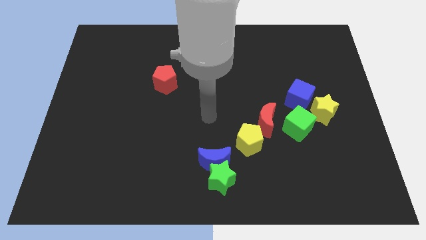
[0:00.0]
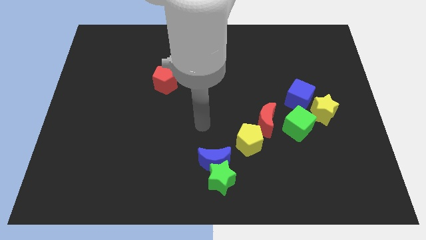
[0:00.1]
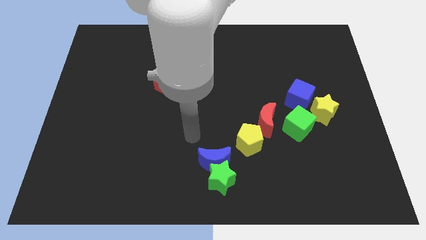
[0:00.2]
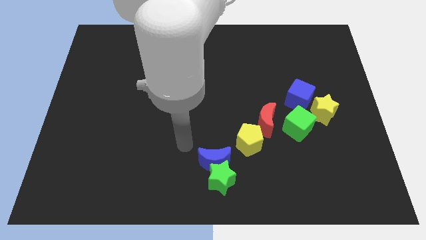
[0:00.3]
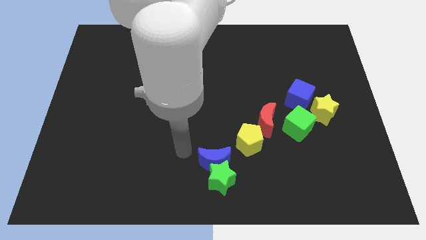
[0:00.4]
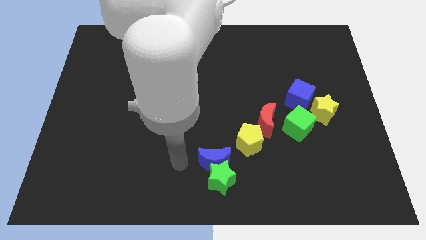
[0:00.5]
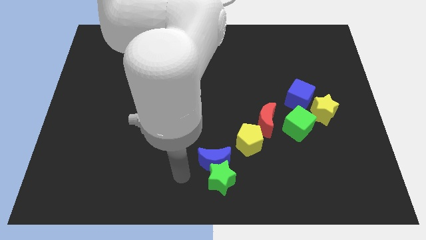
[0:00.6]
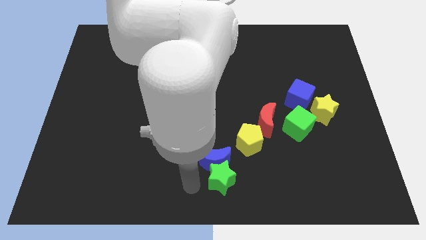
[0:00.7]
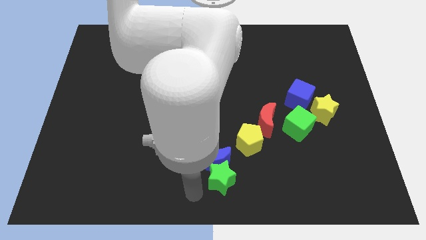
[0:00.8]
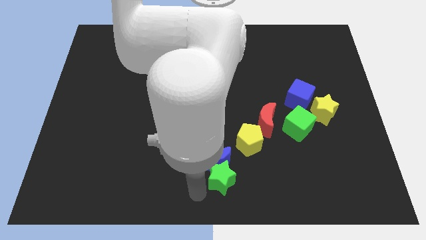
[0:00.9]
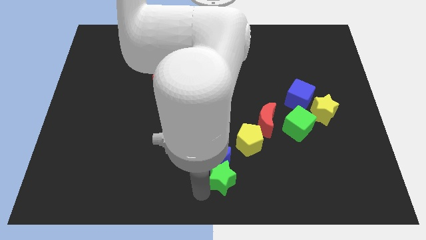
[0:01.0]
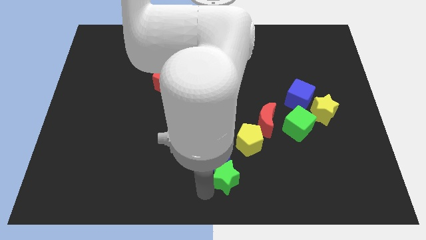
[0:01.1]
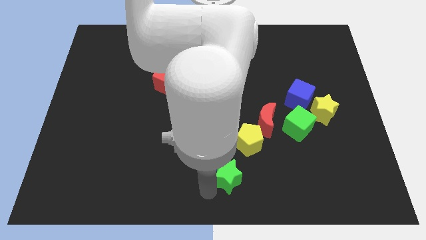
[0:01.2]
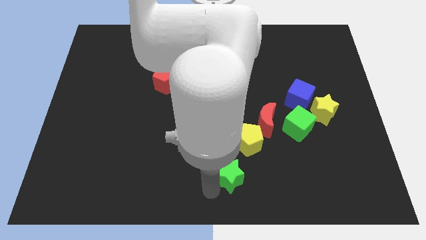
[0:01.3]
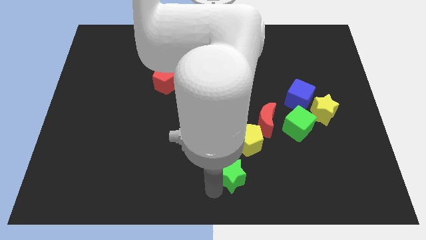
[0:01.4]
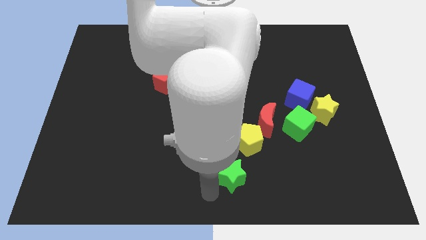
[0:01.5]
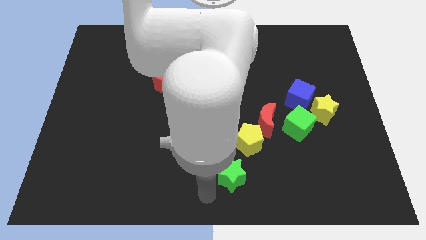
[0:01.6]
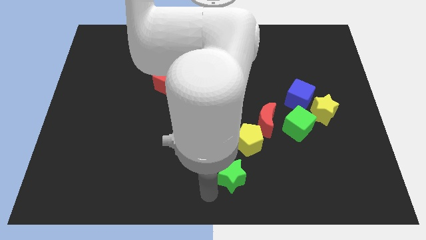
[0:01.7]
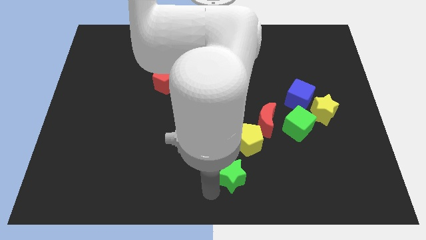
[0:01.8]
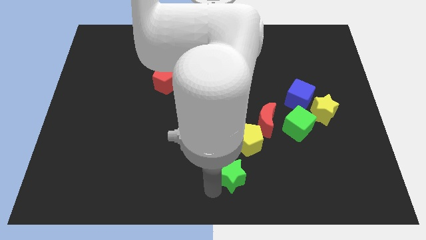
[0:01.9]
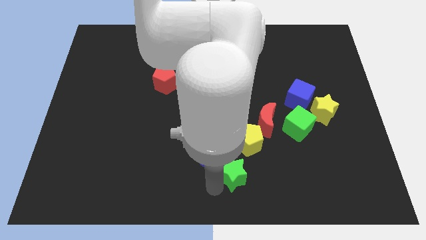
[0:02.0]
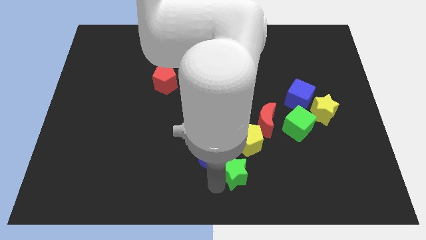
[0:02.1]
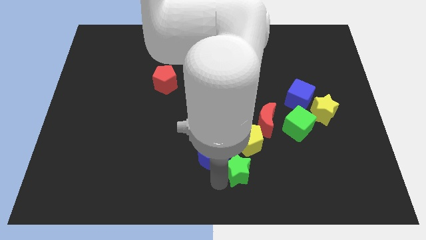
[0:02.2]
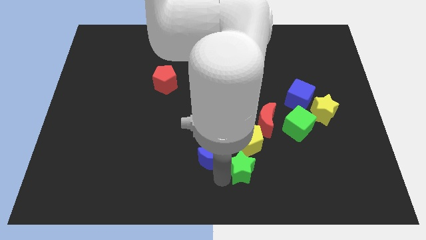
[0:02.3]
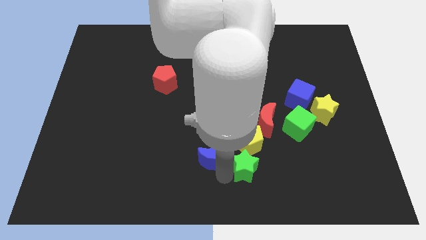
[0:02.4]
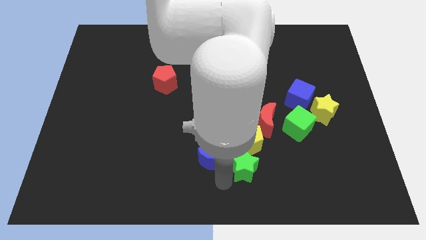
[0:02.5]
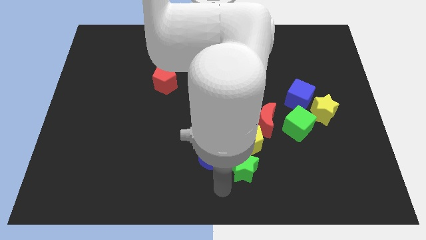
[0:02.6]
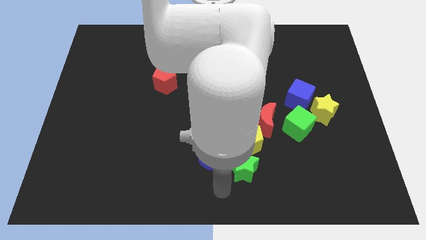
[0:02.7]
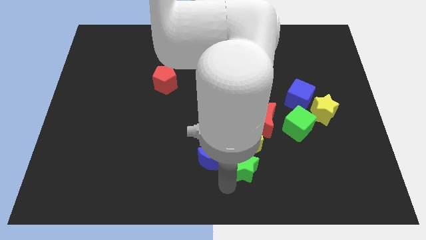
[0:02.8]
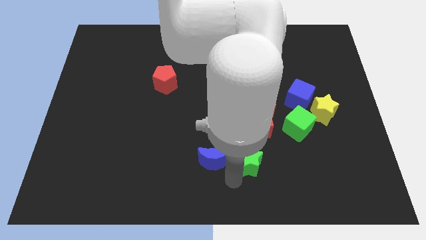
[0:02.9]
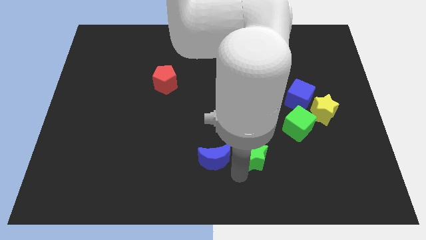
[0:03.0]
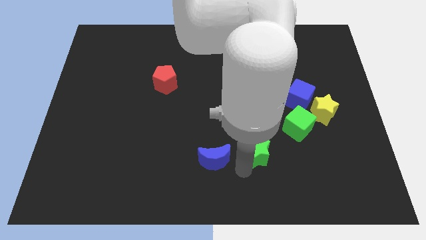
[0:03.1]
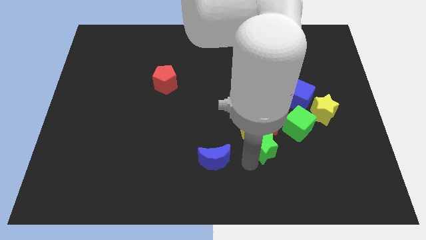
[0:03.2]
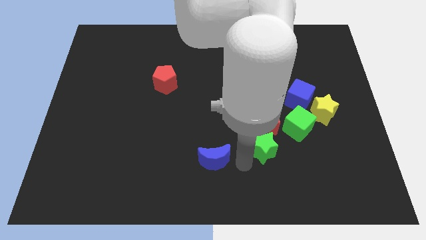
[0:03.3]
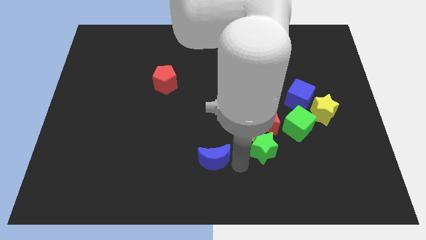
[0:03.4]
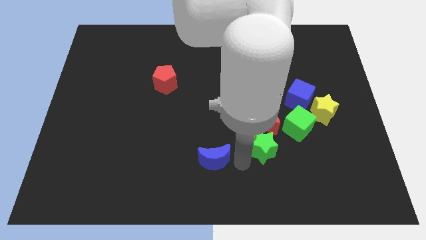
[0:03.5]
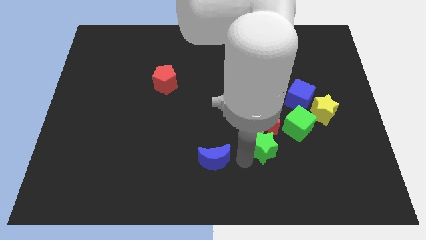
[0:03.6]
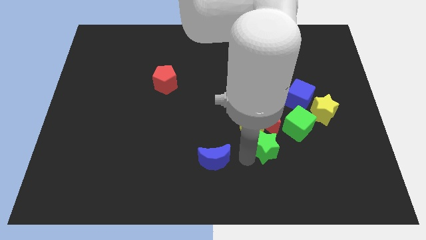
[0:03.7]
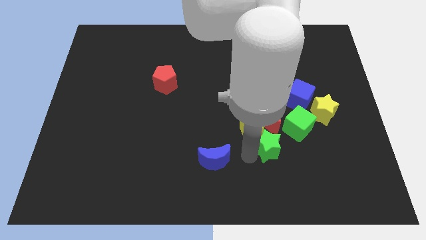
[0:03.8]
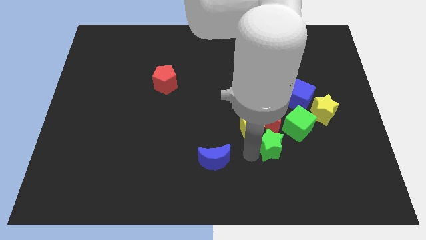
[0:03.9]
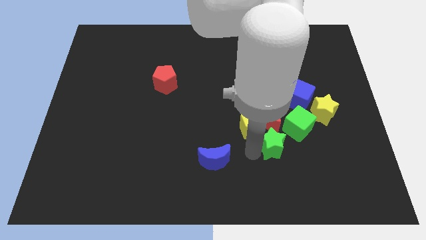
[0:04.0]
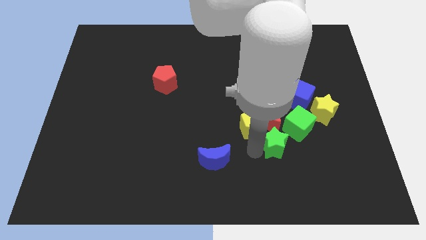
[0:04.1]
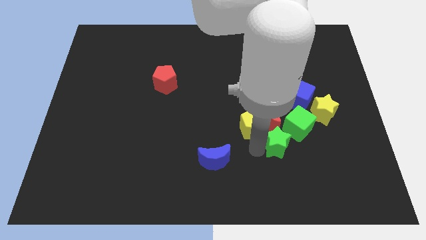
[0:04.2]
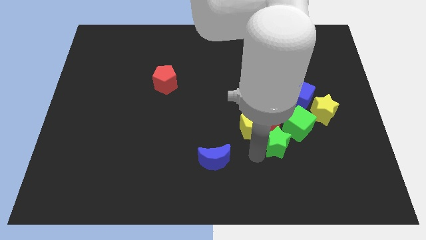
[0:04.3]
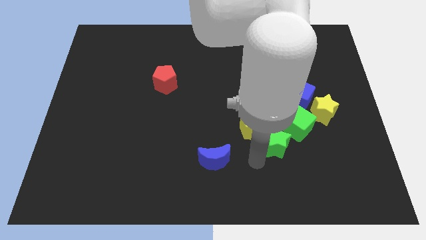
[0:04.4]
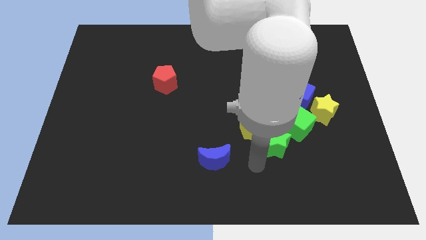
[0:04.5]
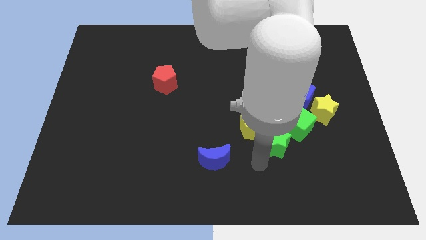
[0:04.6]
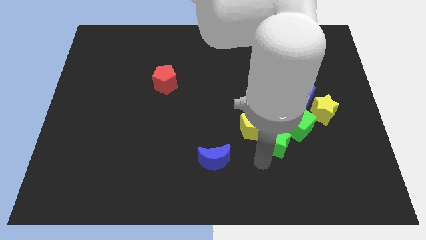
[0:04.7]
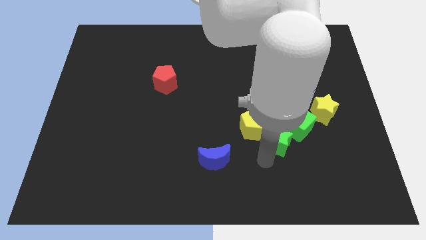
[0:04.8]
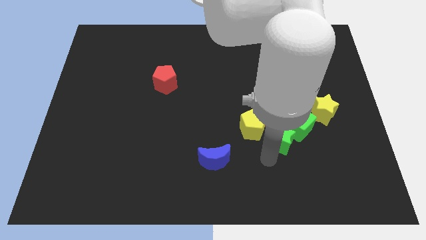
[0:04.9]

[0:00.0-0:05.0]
slide the green star next to the green cube

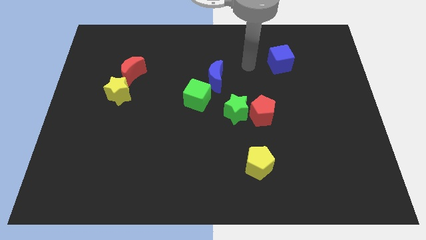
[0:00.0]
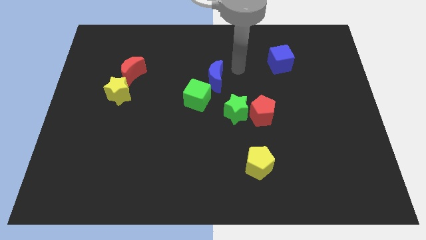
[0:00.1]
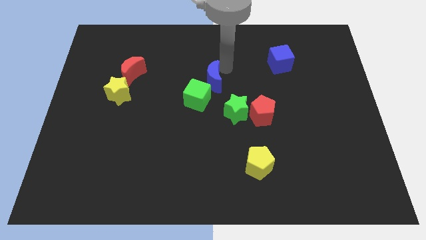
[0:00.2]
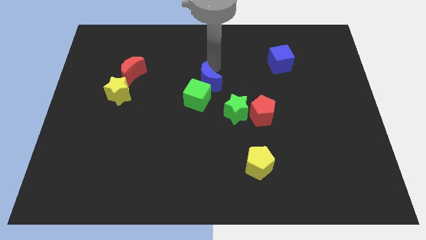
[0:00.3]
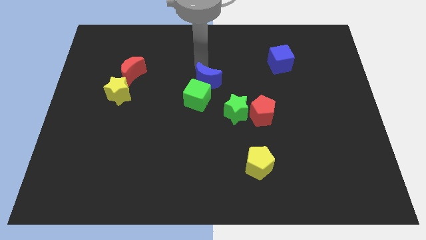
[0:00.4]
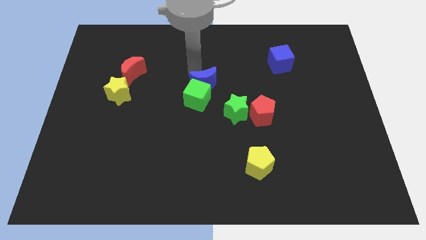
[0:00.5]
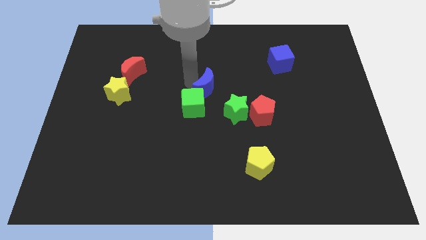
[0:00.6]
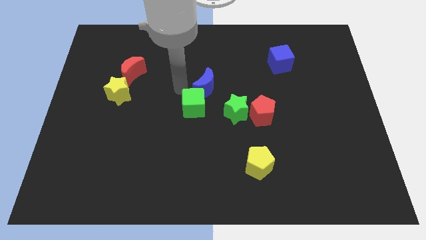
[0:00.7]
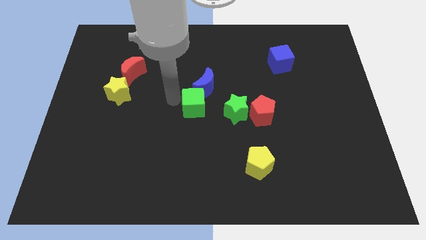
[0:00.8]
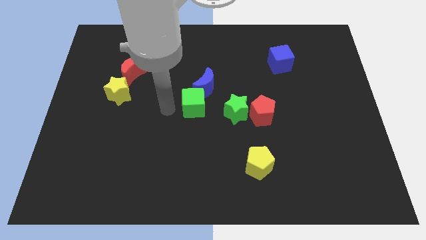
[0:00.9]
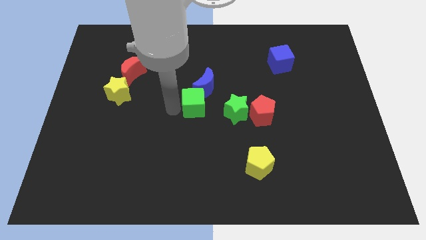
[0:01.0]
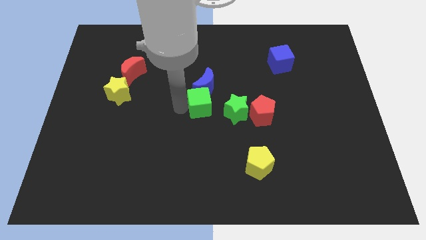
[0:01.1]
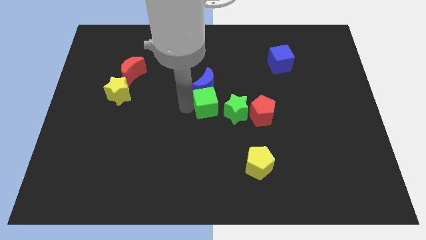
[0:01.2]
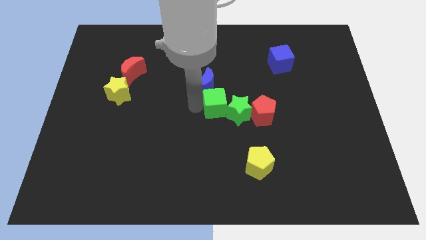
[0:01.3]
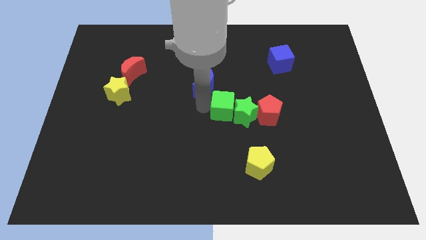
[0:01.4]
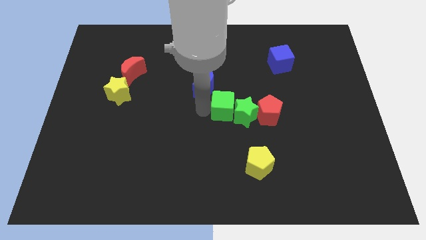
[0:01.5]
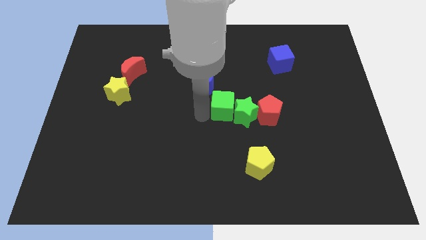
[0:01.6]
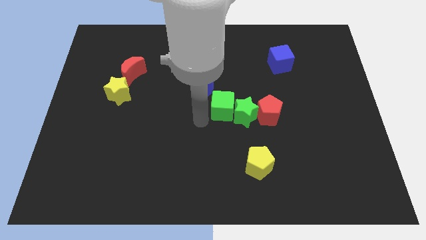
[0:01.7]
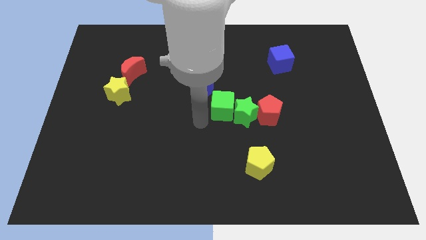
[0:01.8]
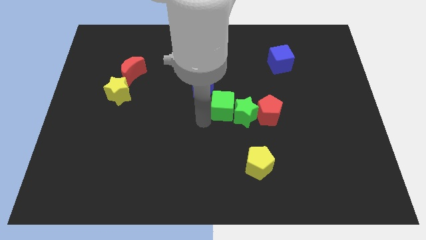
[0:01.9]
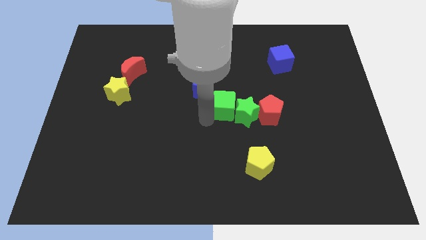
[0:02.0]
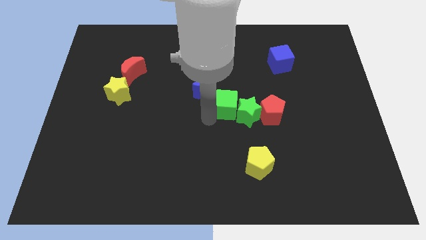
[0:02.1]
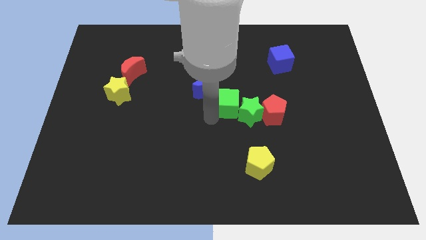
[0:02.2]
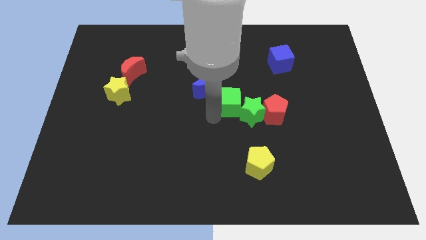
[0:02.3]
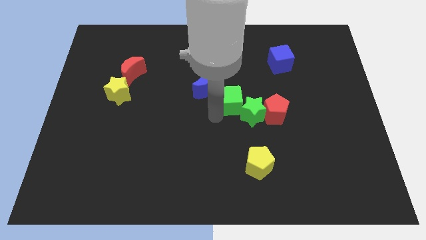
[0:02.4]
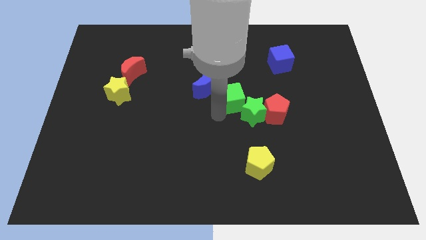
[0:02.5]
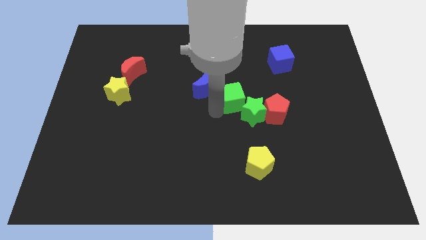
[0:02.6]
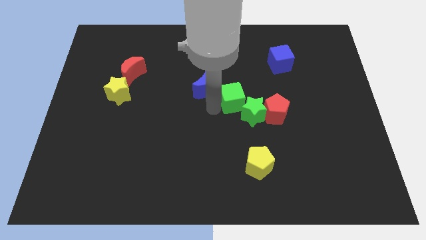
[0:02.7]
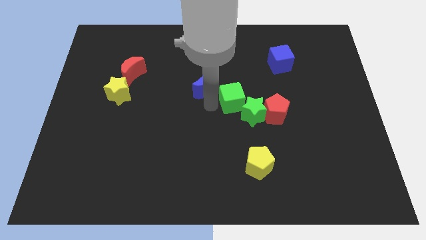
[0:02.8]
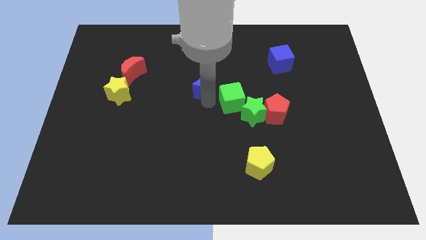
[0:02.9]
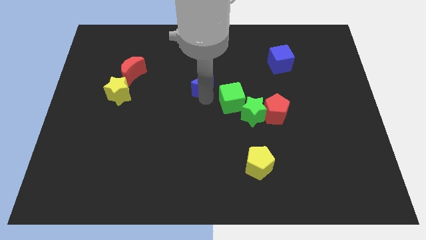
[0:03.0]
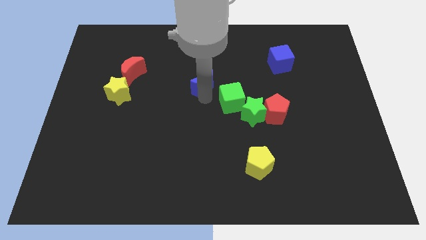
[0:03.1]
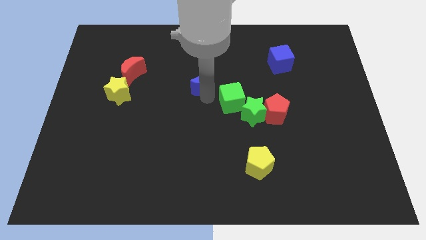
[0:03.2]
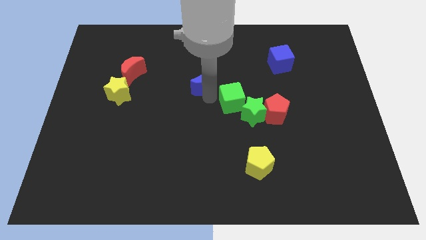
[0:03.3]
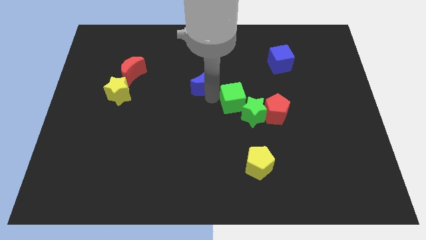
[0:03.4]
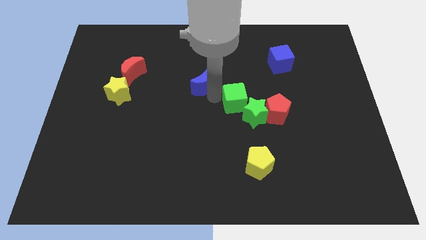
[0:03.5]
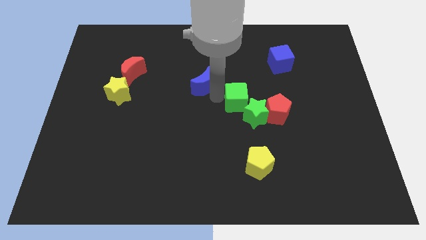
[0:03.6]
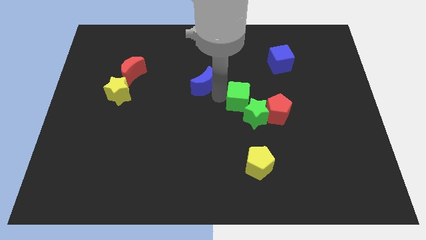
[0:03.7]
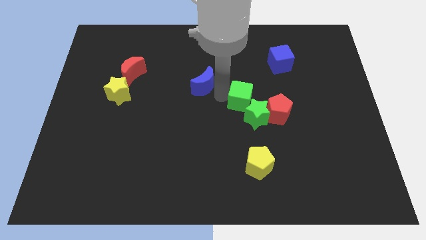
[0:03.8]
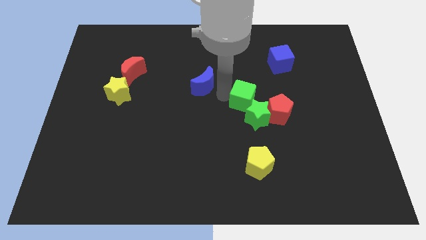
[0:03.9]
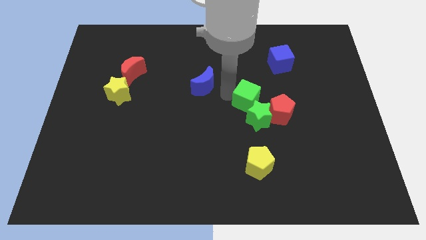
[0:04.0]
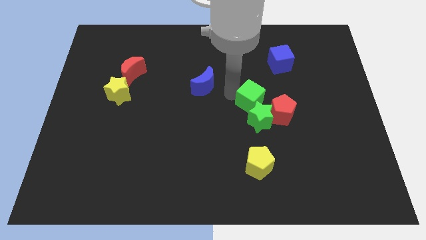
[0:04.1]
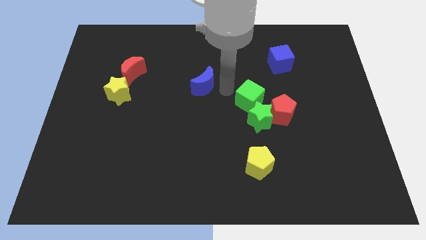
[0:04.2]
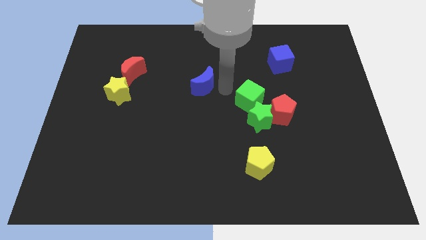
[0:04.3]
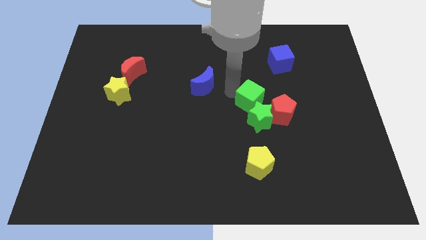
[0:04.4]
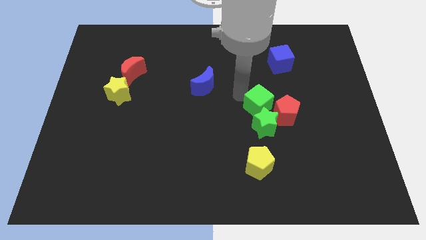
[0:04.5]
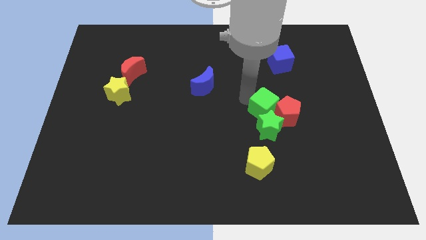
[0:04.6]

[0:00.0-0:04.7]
move the green cube towards the red pentagon
